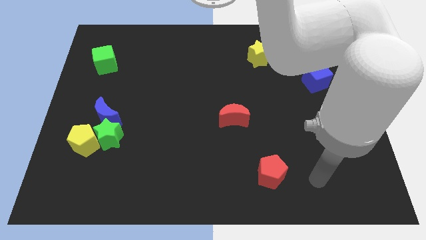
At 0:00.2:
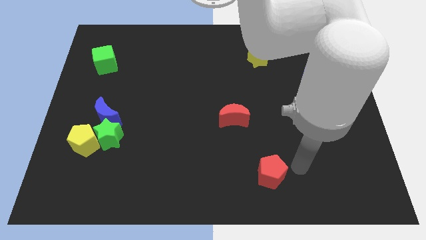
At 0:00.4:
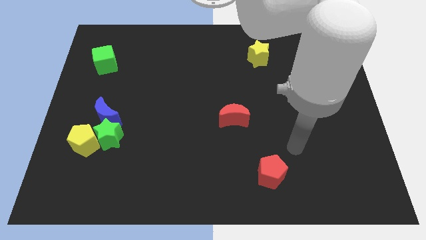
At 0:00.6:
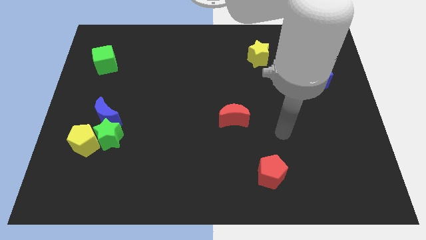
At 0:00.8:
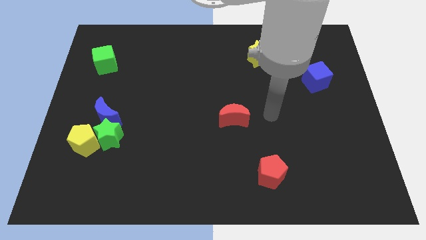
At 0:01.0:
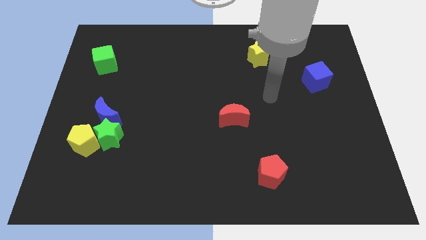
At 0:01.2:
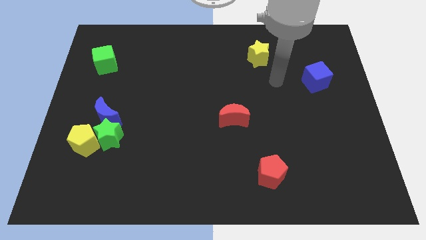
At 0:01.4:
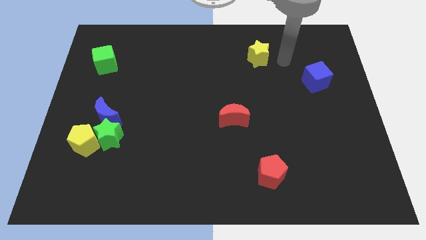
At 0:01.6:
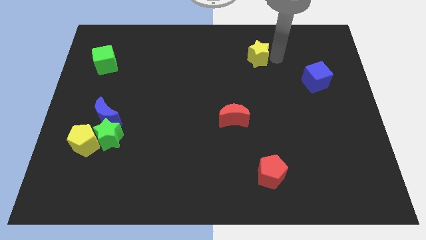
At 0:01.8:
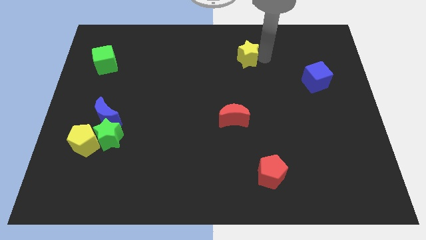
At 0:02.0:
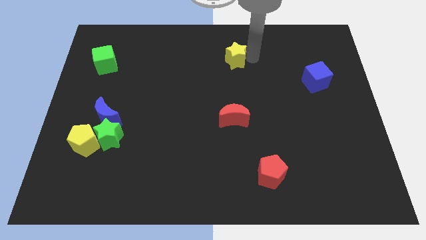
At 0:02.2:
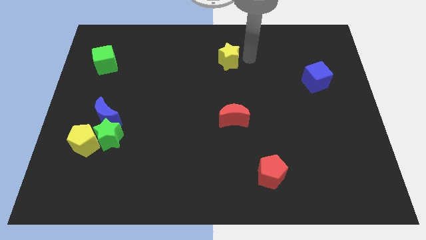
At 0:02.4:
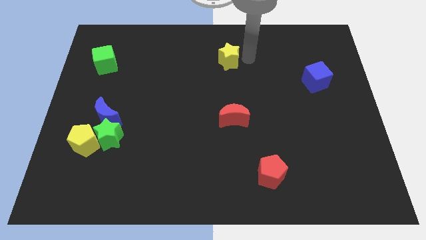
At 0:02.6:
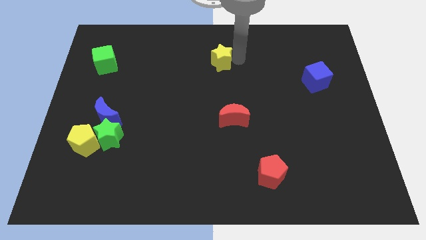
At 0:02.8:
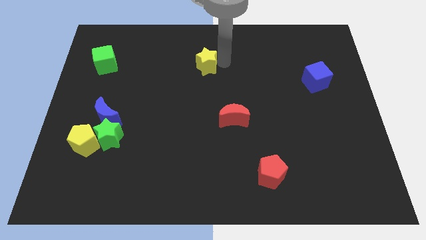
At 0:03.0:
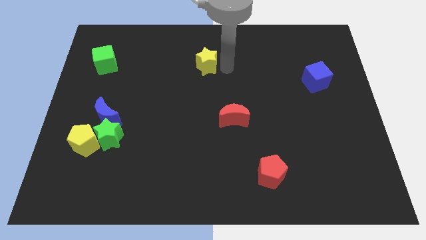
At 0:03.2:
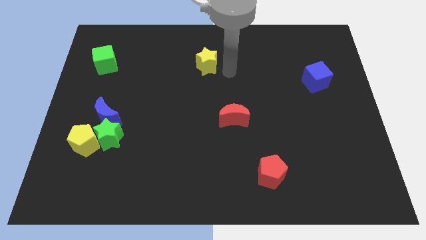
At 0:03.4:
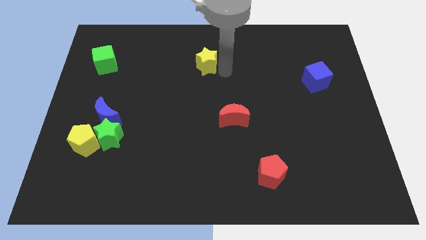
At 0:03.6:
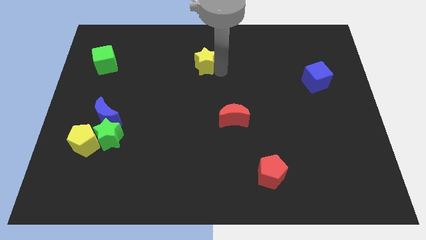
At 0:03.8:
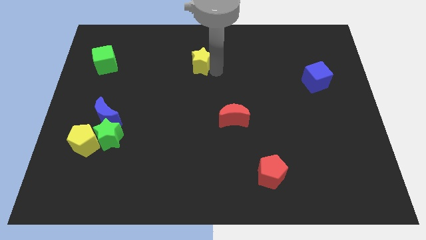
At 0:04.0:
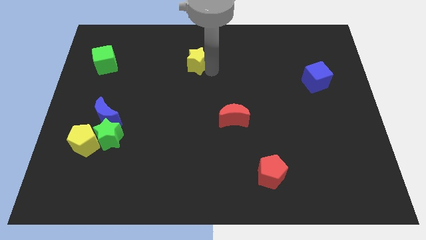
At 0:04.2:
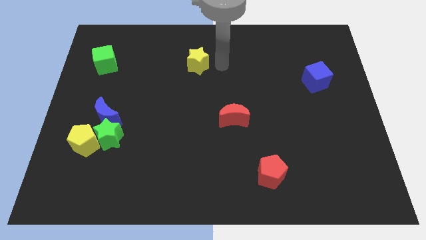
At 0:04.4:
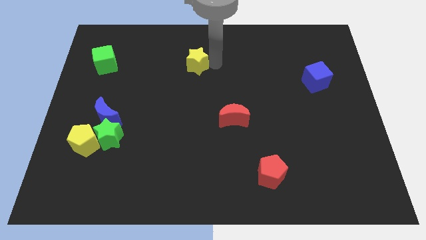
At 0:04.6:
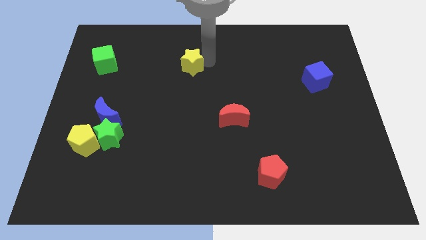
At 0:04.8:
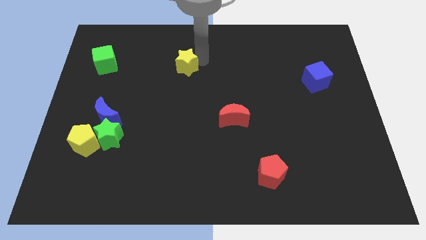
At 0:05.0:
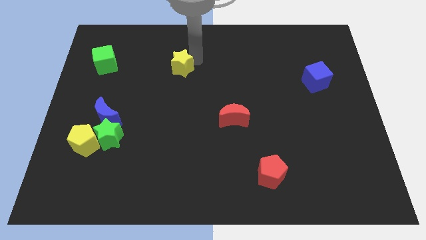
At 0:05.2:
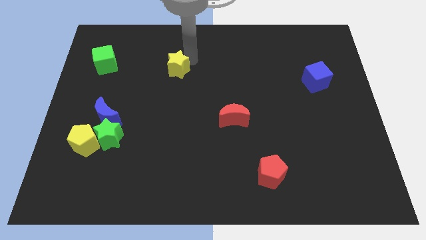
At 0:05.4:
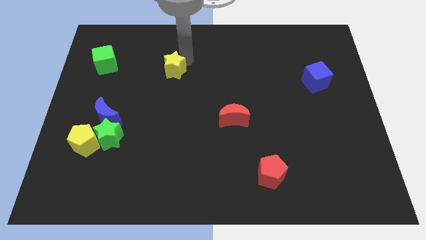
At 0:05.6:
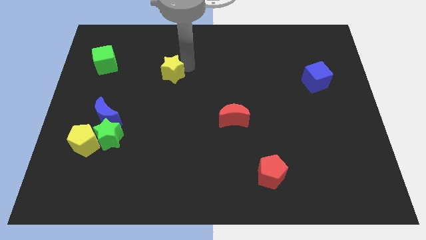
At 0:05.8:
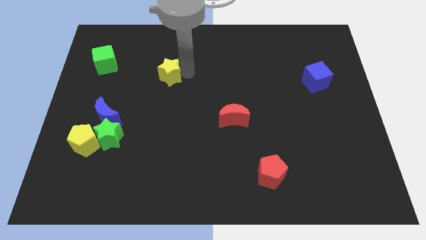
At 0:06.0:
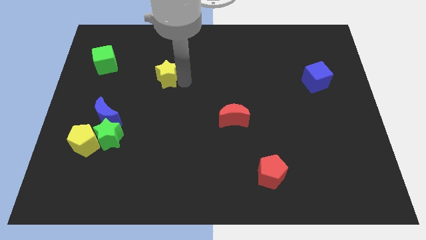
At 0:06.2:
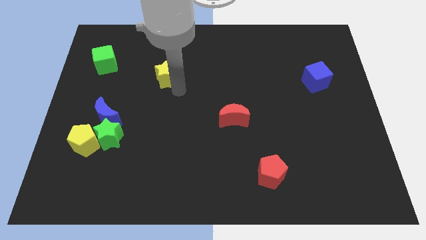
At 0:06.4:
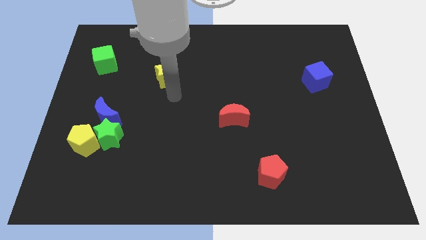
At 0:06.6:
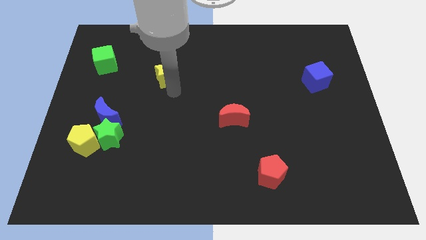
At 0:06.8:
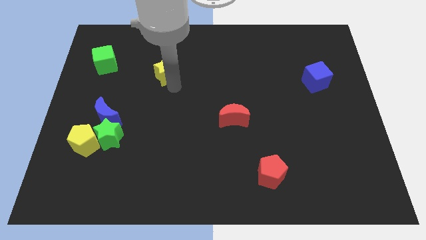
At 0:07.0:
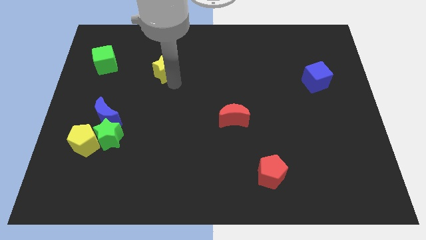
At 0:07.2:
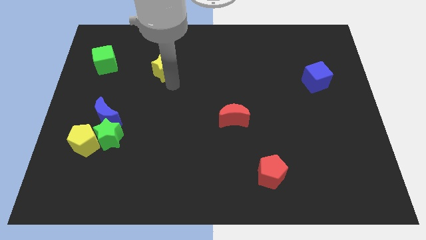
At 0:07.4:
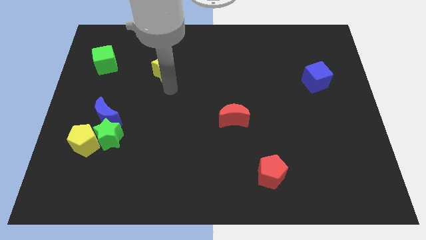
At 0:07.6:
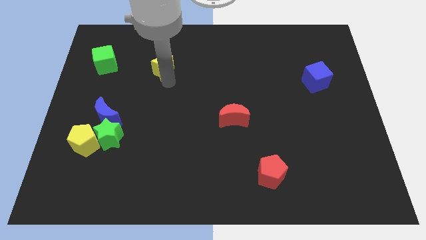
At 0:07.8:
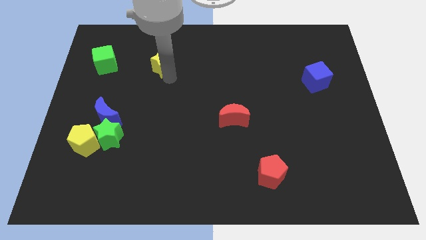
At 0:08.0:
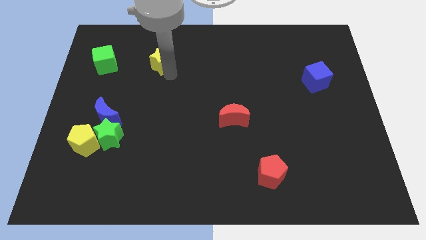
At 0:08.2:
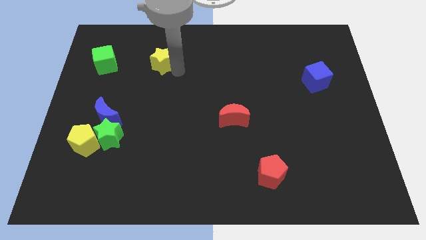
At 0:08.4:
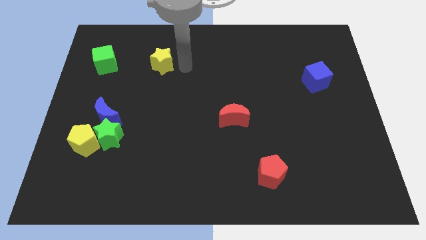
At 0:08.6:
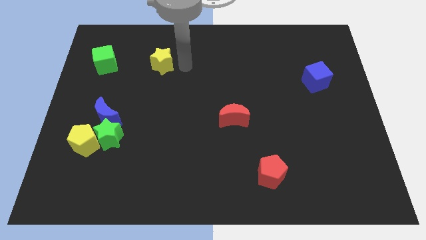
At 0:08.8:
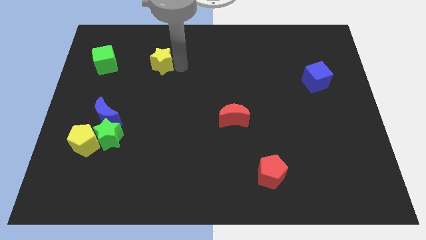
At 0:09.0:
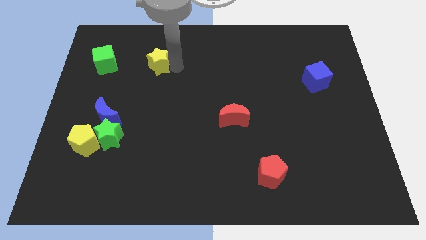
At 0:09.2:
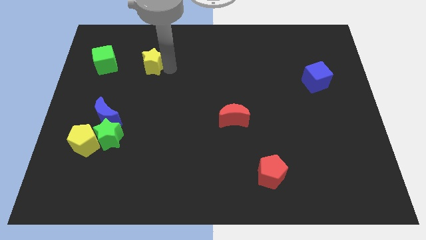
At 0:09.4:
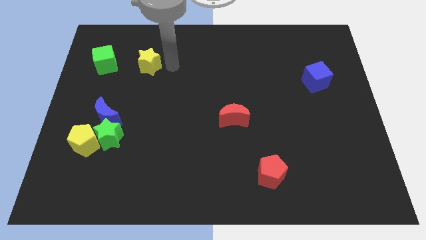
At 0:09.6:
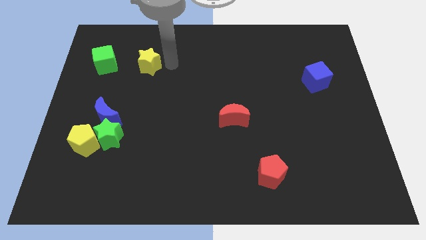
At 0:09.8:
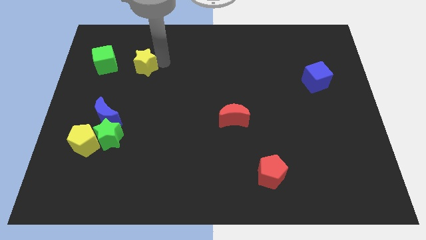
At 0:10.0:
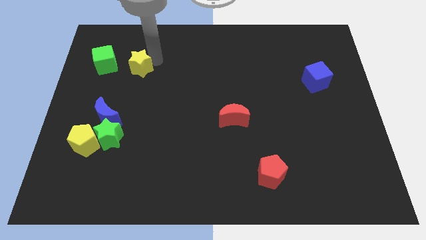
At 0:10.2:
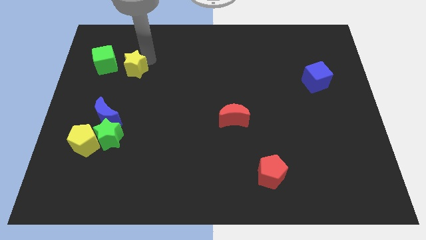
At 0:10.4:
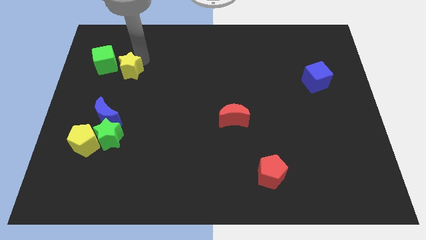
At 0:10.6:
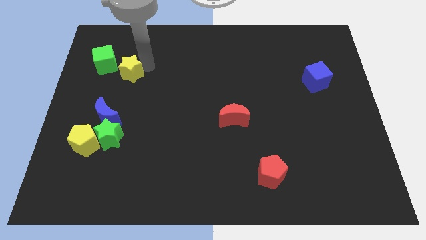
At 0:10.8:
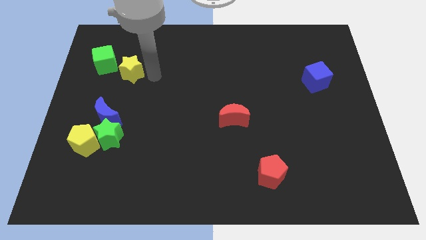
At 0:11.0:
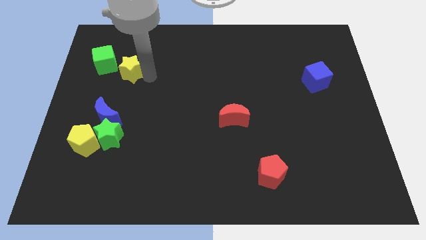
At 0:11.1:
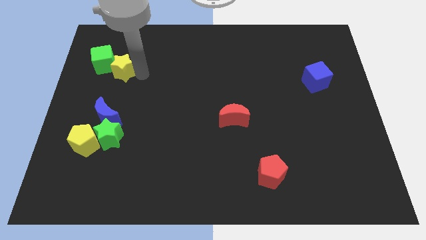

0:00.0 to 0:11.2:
slide the yellow star next to the green cube

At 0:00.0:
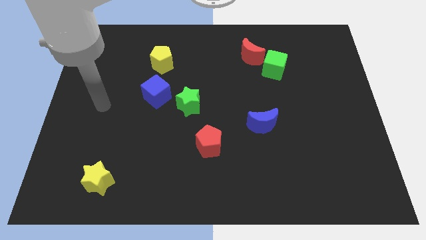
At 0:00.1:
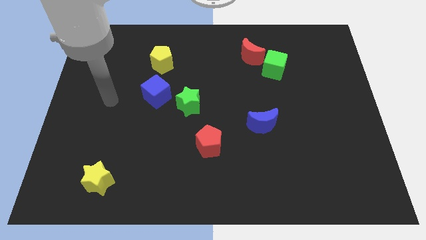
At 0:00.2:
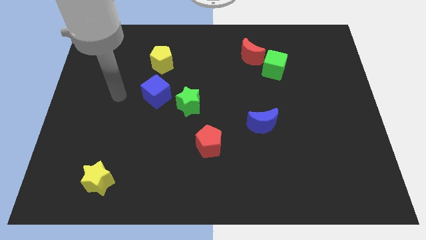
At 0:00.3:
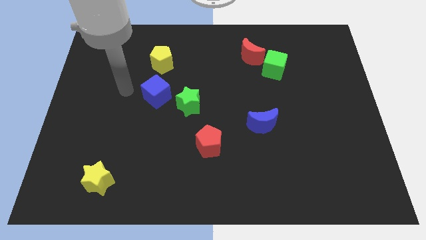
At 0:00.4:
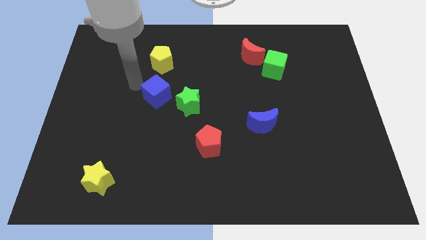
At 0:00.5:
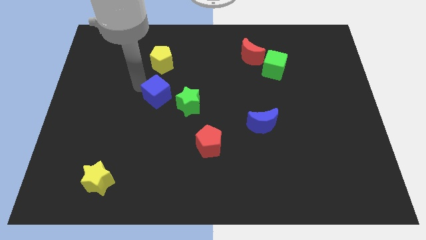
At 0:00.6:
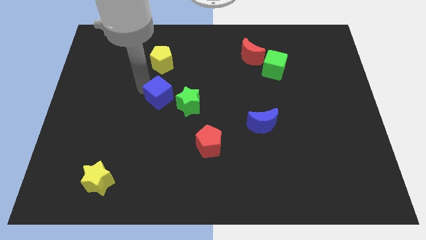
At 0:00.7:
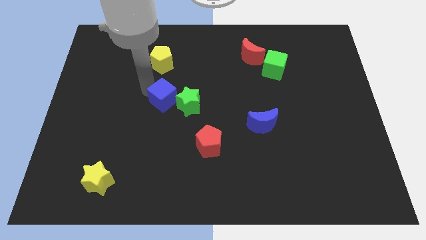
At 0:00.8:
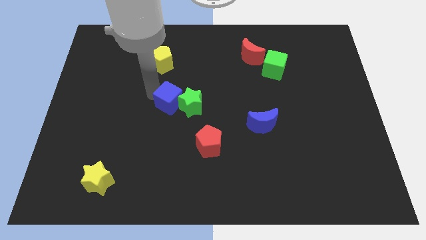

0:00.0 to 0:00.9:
slide the blue cube to the green star
